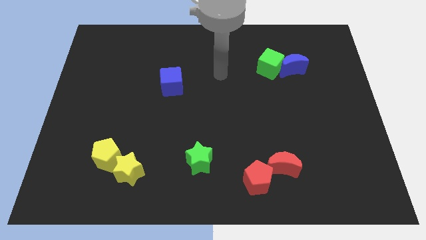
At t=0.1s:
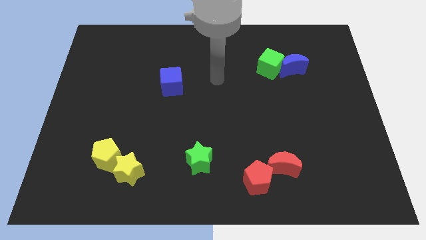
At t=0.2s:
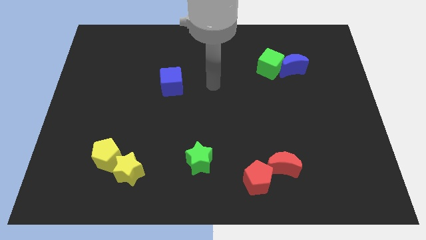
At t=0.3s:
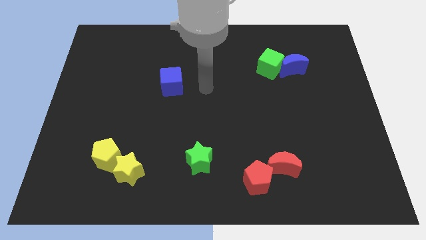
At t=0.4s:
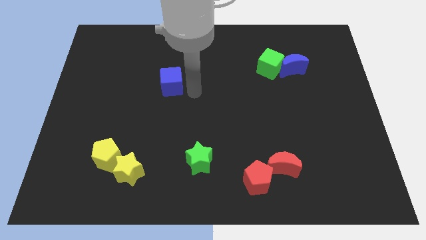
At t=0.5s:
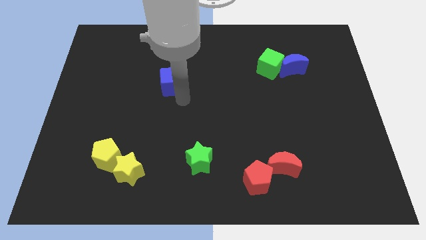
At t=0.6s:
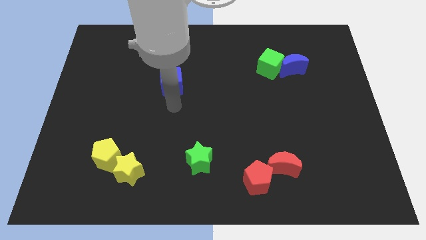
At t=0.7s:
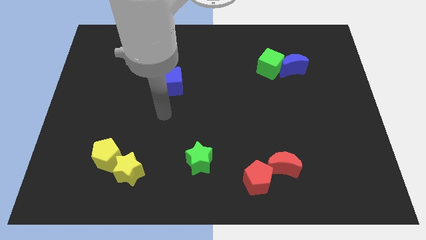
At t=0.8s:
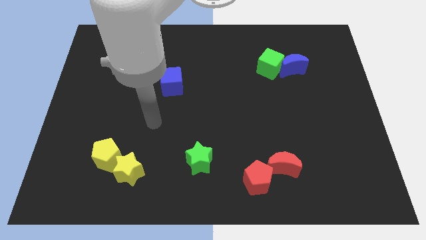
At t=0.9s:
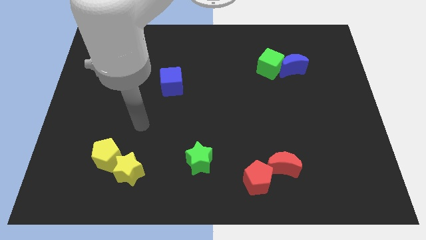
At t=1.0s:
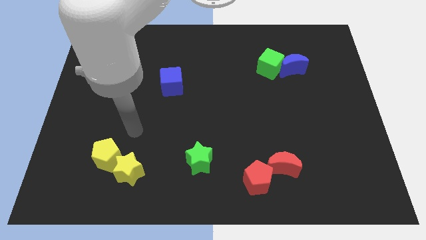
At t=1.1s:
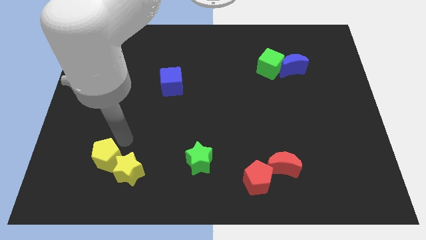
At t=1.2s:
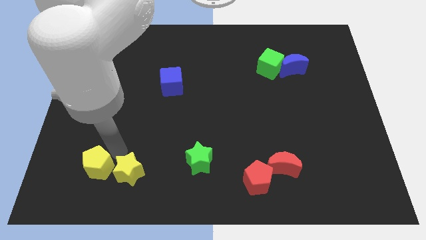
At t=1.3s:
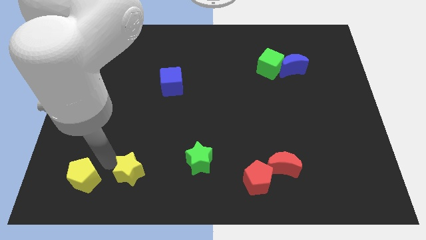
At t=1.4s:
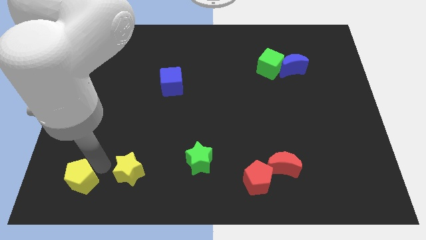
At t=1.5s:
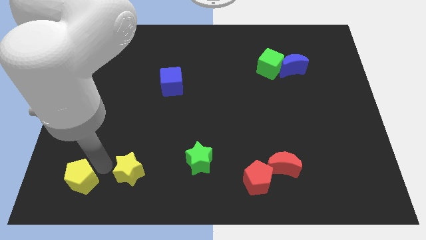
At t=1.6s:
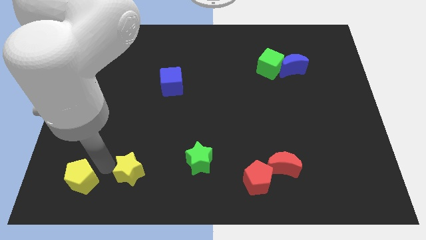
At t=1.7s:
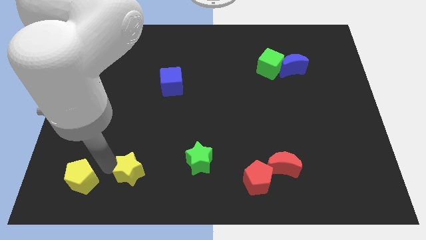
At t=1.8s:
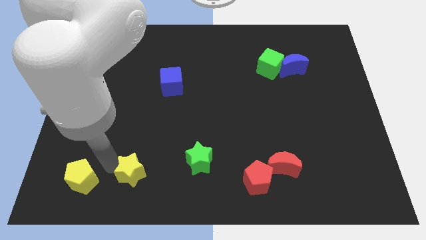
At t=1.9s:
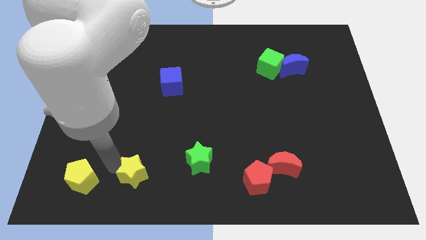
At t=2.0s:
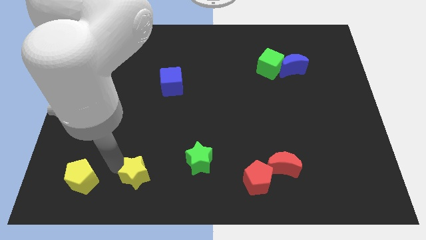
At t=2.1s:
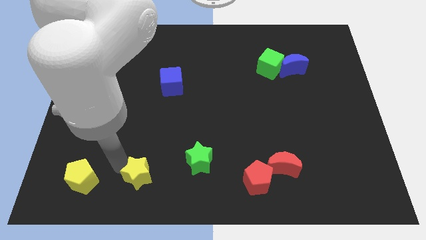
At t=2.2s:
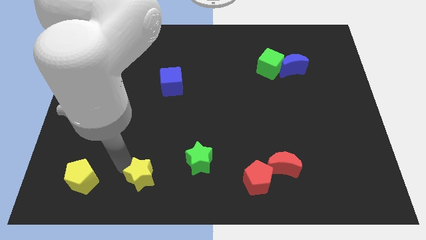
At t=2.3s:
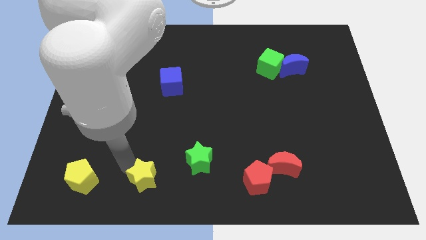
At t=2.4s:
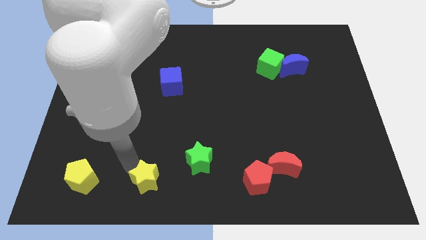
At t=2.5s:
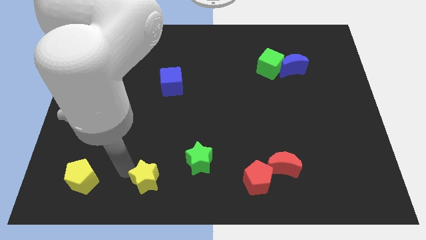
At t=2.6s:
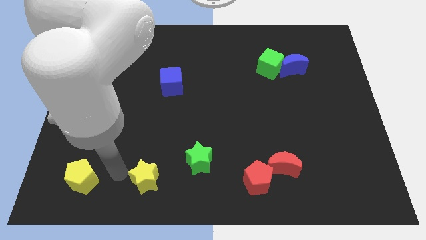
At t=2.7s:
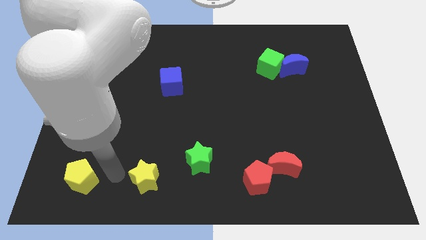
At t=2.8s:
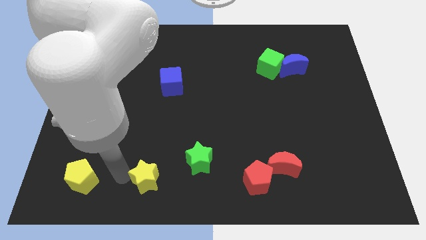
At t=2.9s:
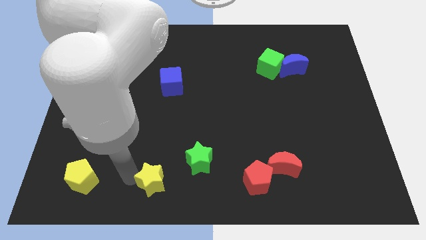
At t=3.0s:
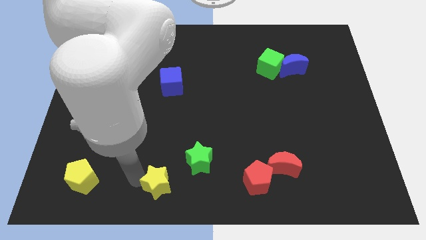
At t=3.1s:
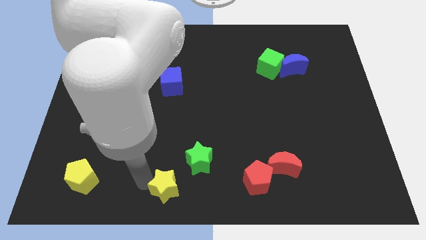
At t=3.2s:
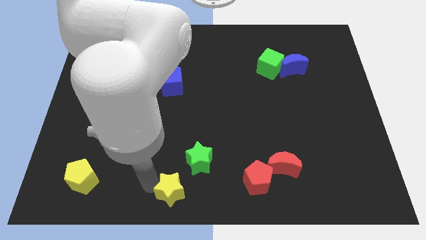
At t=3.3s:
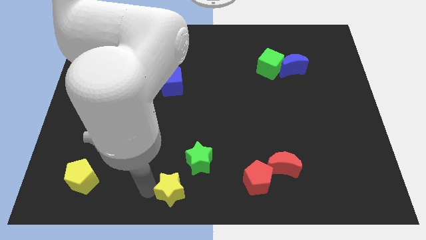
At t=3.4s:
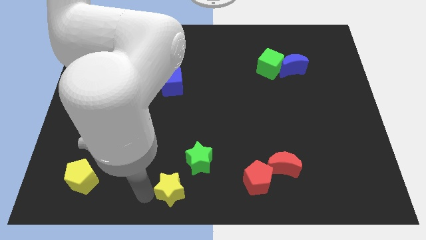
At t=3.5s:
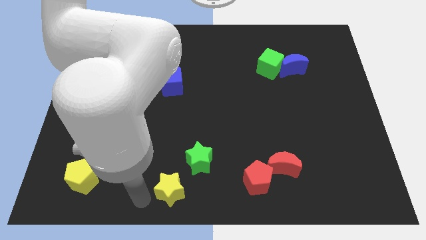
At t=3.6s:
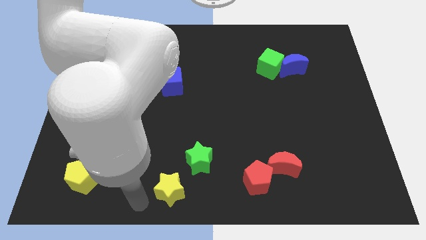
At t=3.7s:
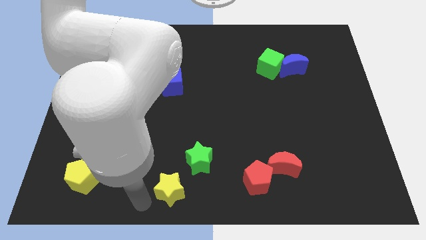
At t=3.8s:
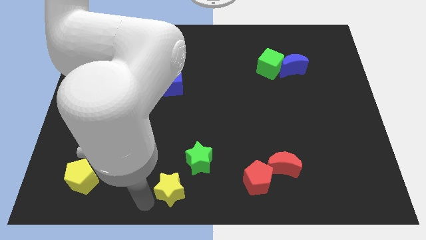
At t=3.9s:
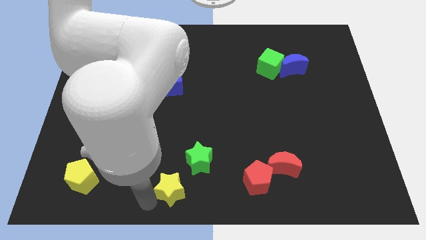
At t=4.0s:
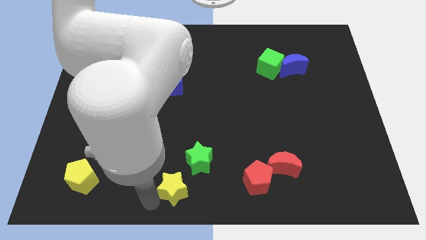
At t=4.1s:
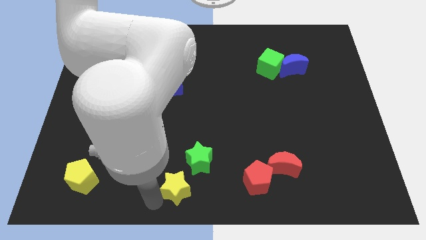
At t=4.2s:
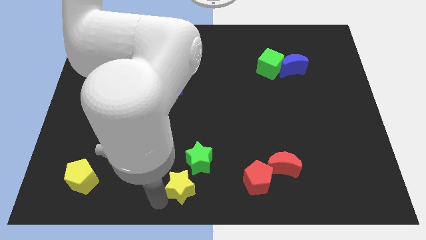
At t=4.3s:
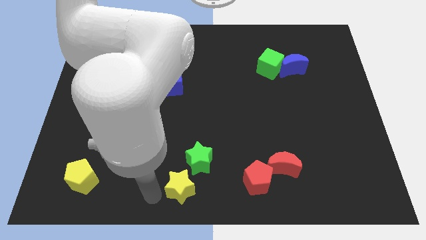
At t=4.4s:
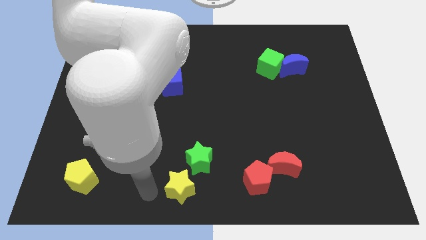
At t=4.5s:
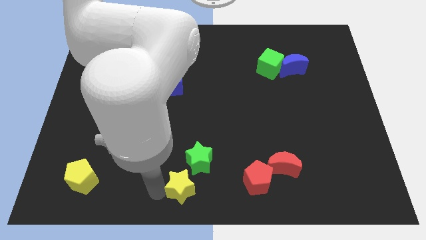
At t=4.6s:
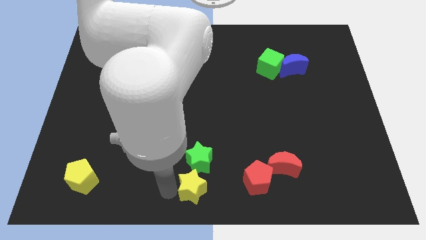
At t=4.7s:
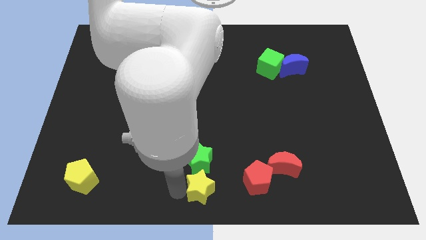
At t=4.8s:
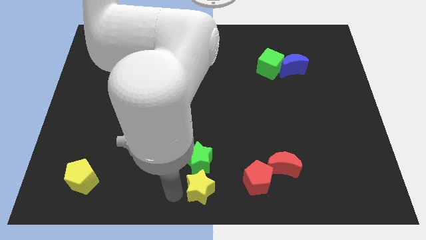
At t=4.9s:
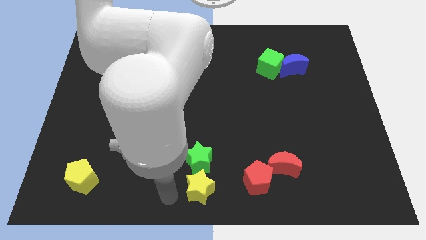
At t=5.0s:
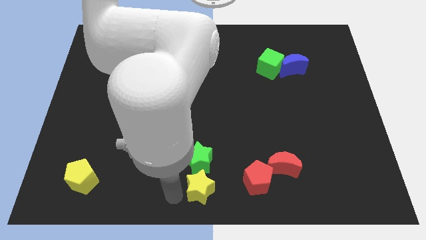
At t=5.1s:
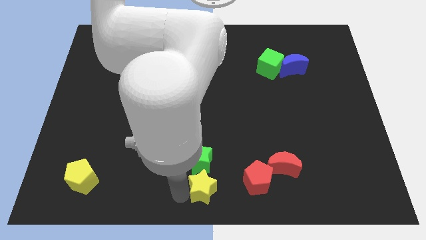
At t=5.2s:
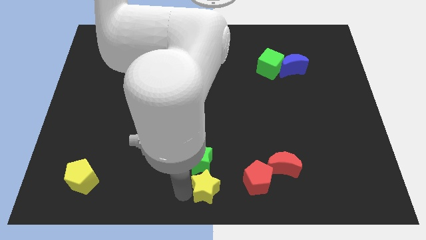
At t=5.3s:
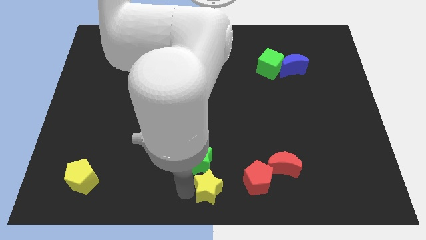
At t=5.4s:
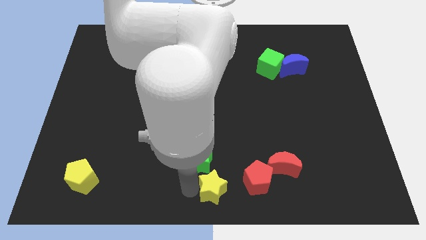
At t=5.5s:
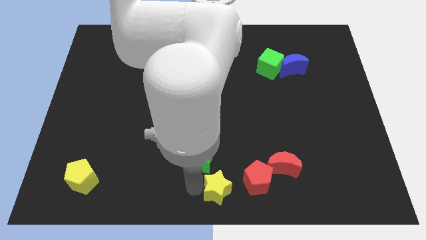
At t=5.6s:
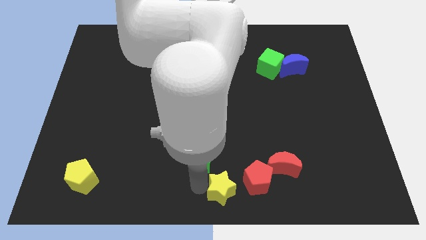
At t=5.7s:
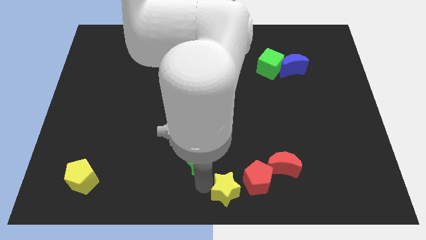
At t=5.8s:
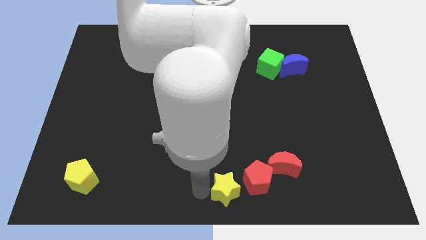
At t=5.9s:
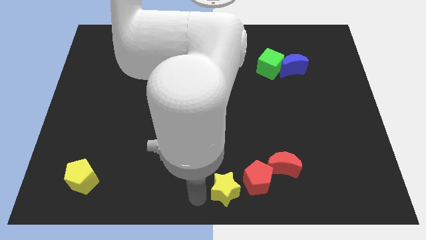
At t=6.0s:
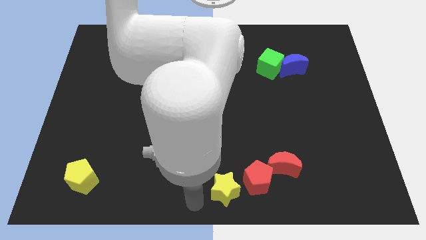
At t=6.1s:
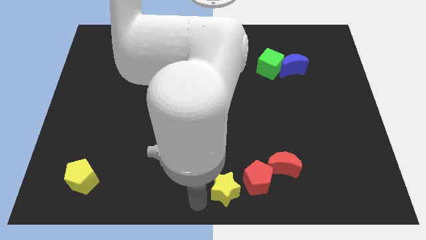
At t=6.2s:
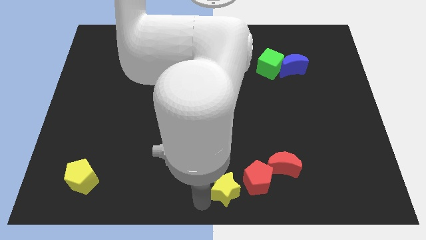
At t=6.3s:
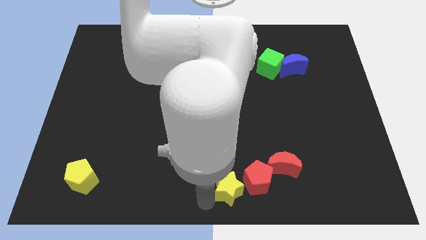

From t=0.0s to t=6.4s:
slide the yellow star next to the red pentagon

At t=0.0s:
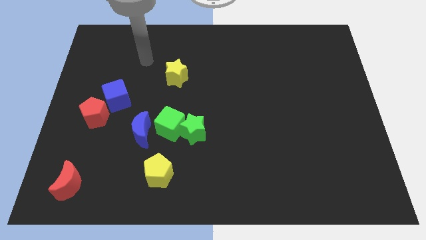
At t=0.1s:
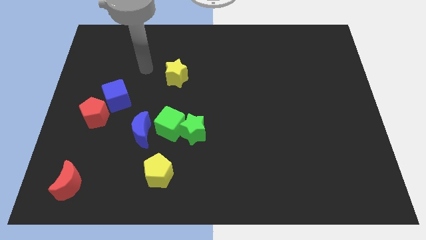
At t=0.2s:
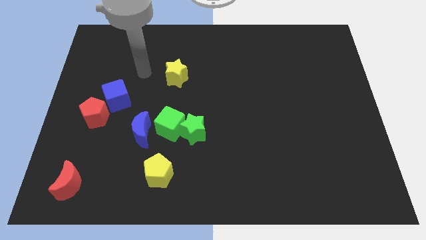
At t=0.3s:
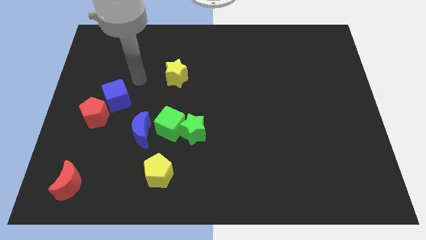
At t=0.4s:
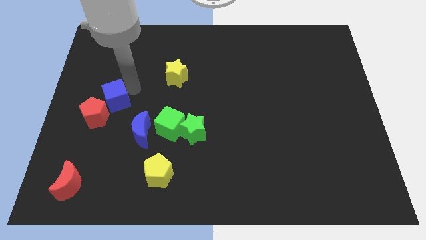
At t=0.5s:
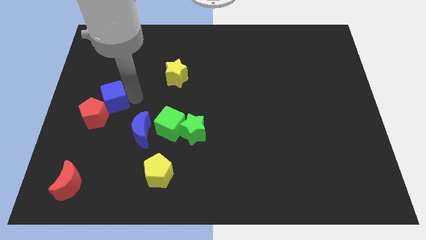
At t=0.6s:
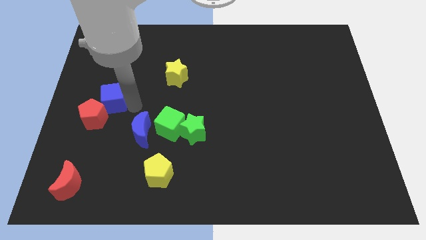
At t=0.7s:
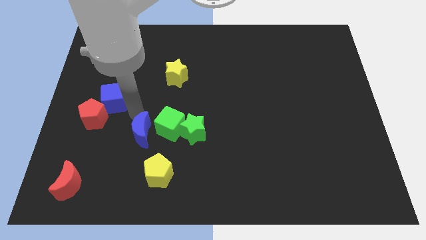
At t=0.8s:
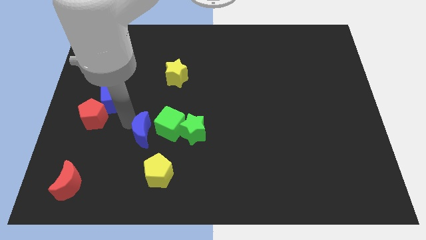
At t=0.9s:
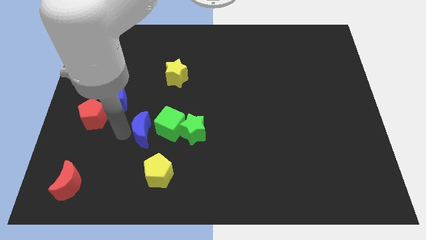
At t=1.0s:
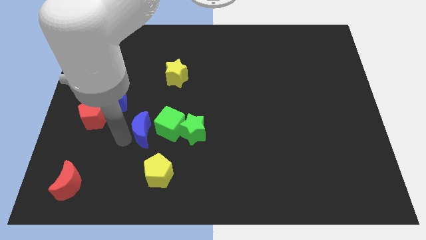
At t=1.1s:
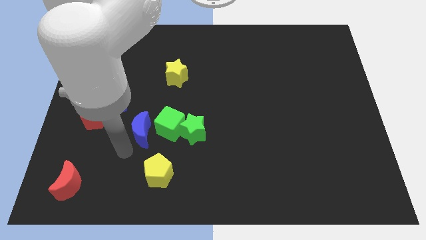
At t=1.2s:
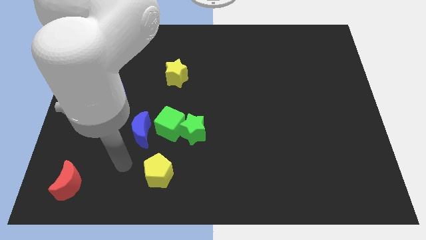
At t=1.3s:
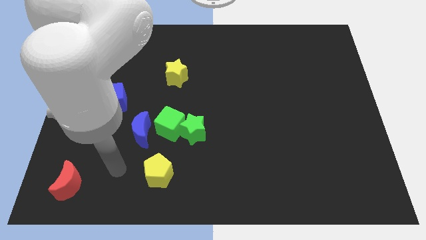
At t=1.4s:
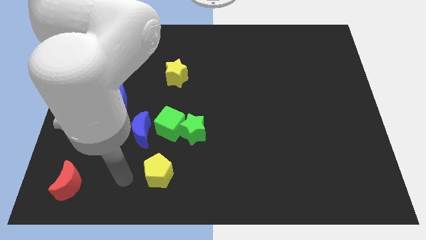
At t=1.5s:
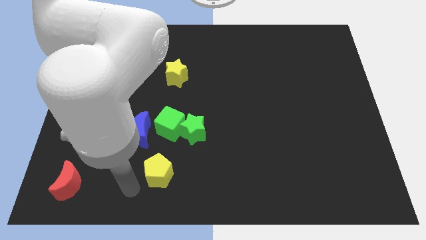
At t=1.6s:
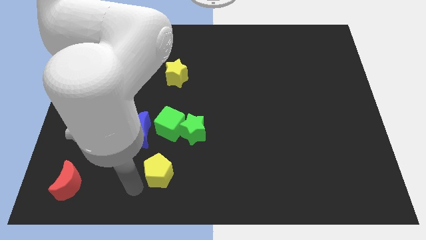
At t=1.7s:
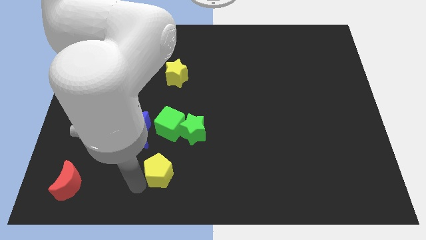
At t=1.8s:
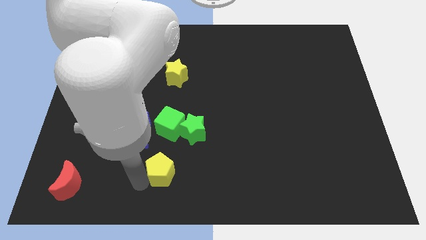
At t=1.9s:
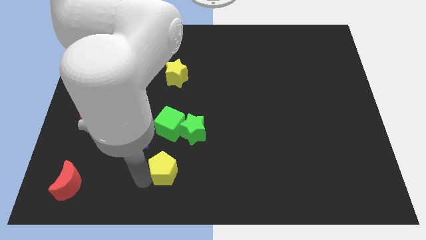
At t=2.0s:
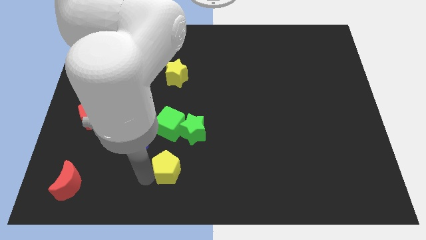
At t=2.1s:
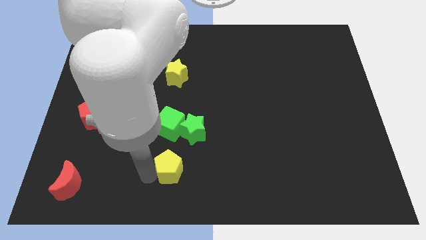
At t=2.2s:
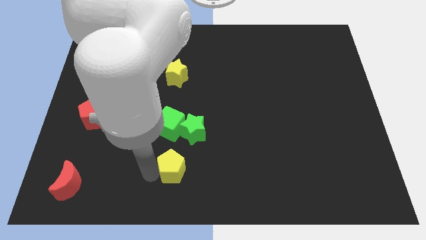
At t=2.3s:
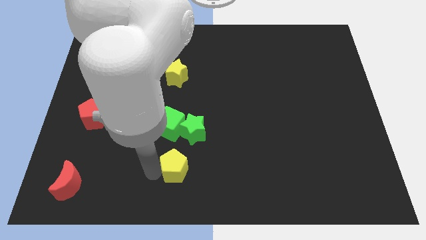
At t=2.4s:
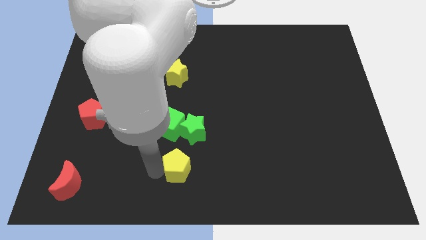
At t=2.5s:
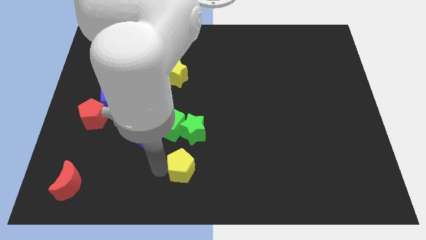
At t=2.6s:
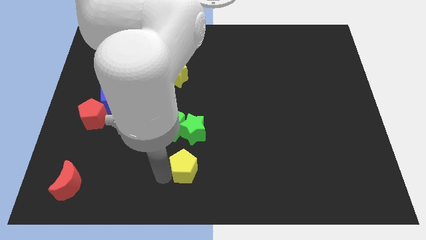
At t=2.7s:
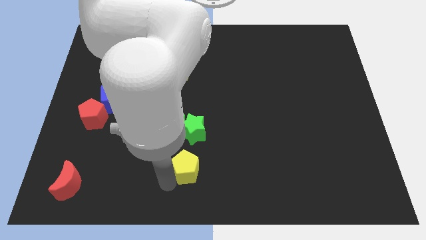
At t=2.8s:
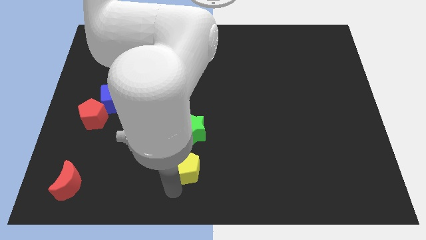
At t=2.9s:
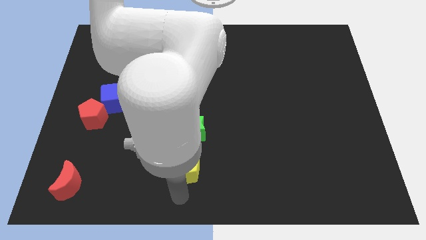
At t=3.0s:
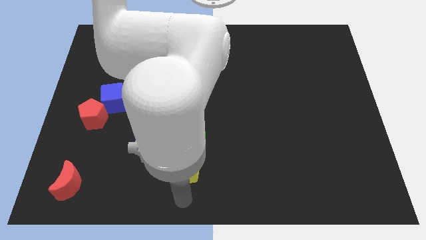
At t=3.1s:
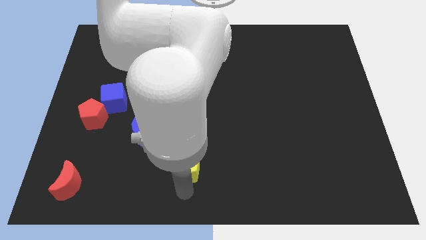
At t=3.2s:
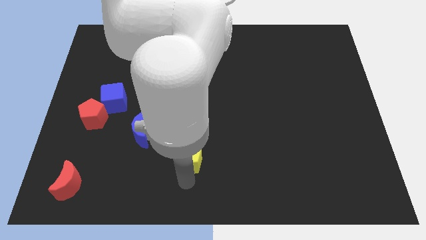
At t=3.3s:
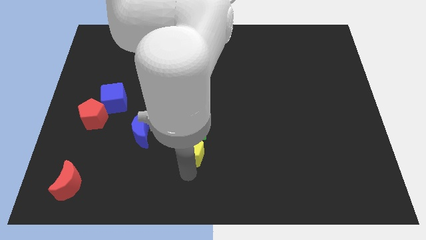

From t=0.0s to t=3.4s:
push the yellow pentagon towards the green star
